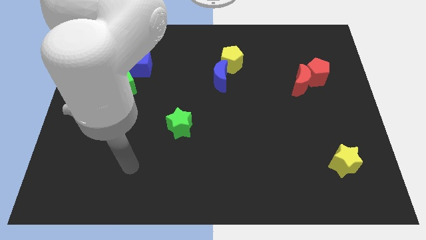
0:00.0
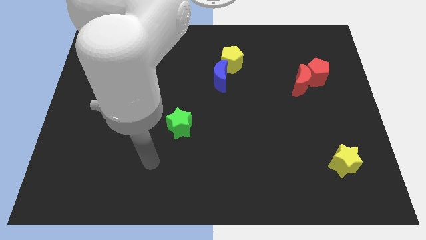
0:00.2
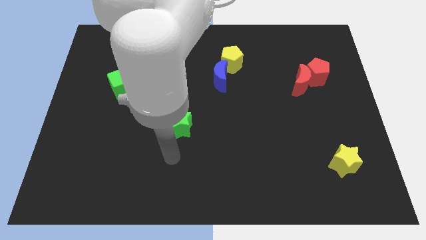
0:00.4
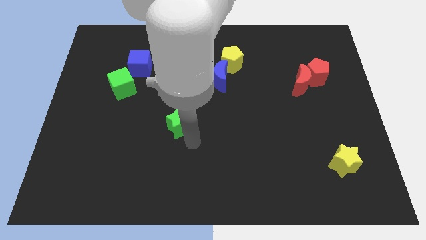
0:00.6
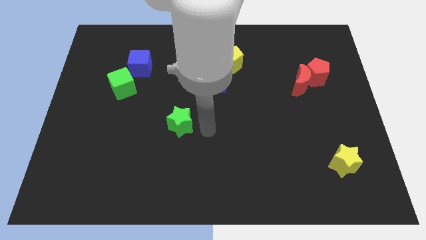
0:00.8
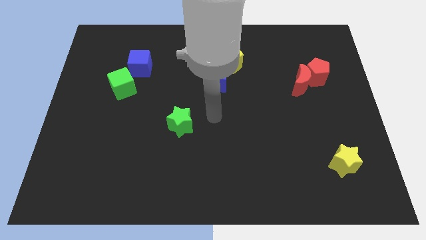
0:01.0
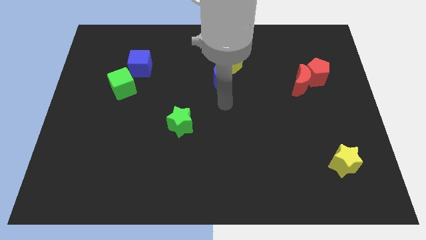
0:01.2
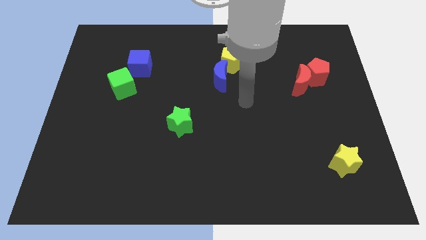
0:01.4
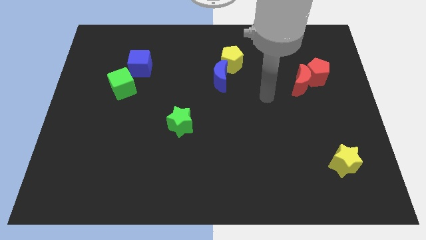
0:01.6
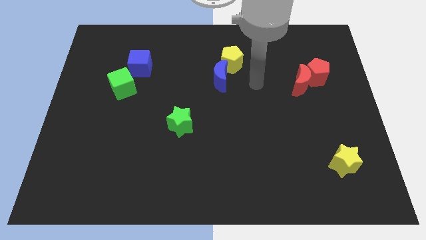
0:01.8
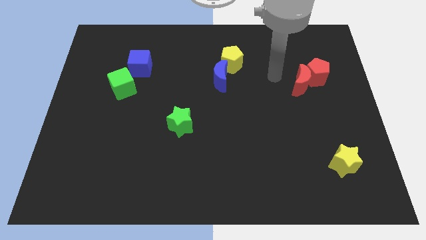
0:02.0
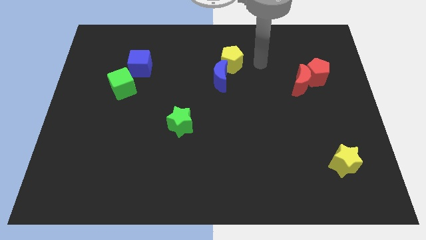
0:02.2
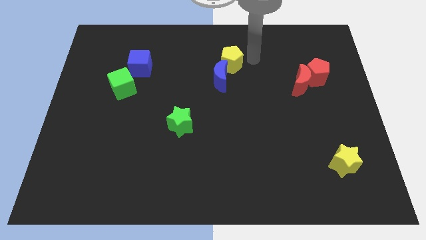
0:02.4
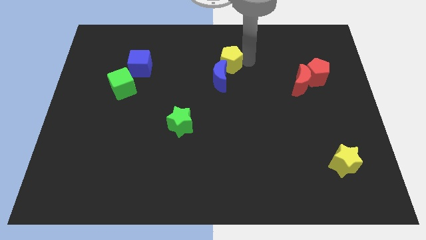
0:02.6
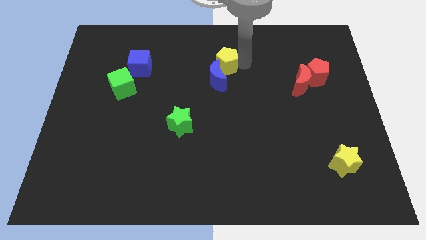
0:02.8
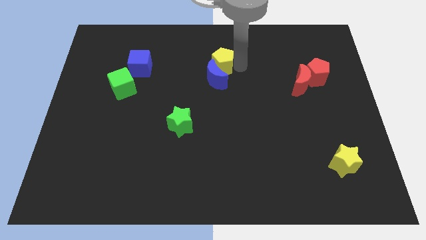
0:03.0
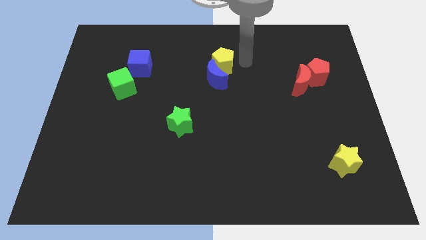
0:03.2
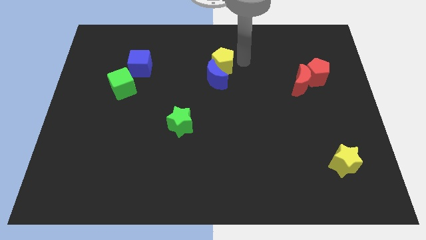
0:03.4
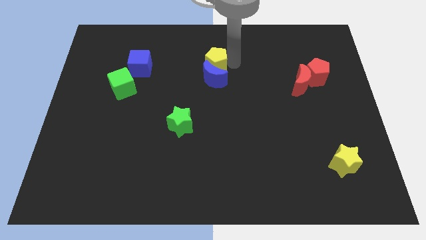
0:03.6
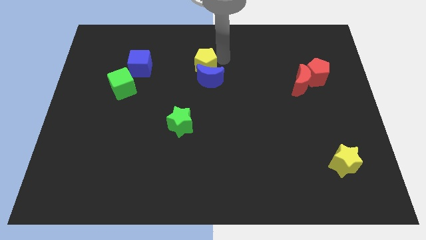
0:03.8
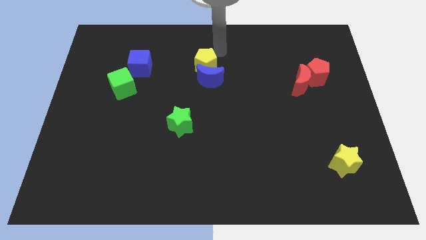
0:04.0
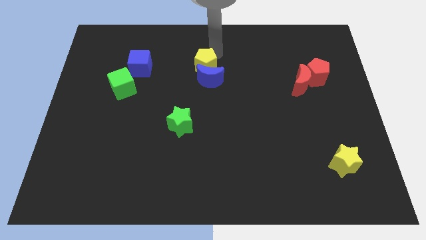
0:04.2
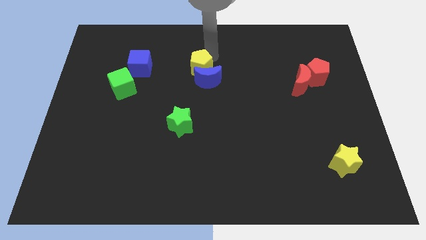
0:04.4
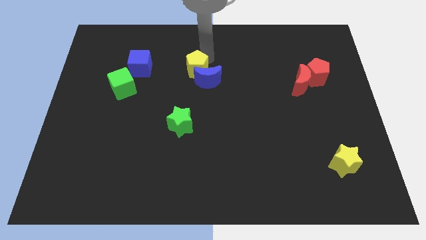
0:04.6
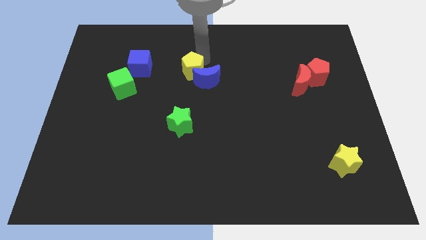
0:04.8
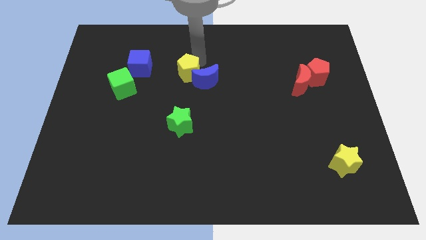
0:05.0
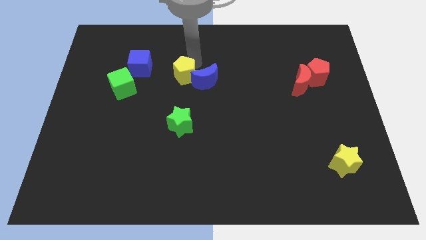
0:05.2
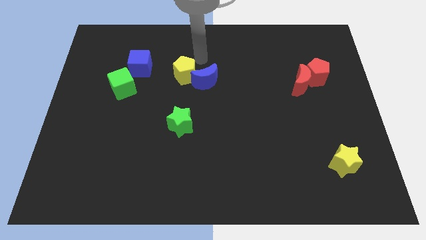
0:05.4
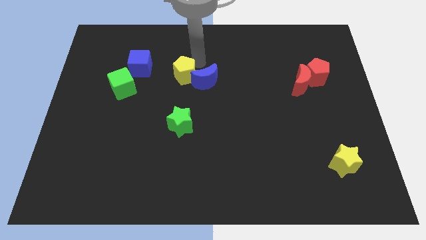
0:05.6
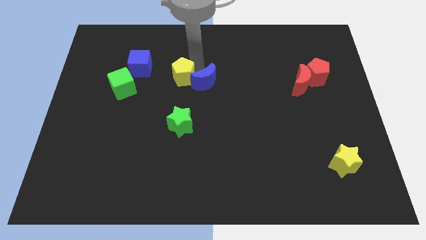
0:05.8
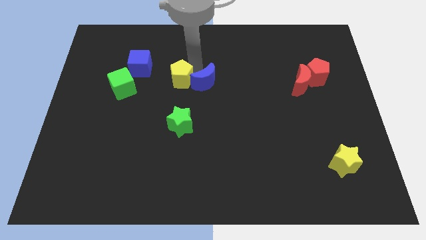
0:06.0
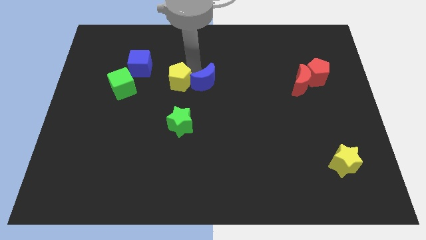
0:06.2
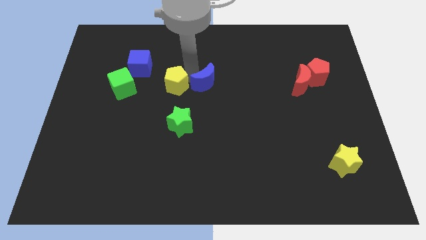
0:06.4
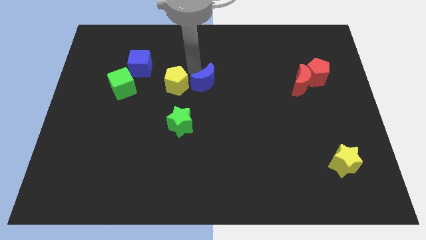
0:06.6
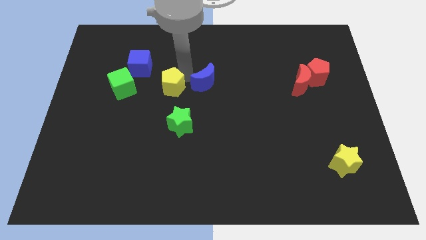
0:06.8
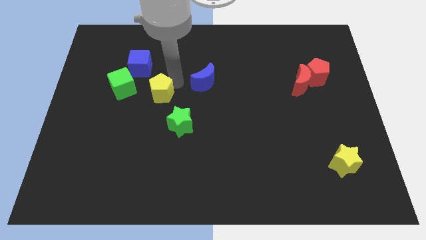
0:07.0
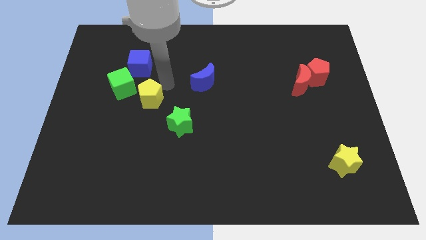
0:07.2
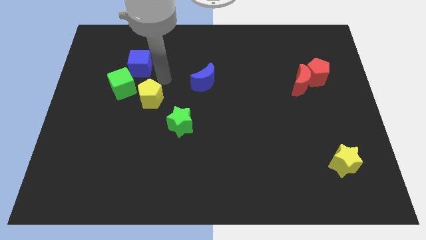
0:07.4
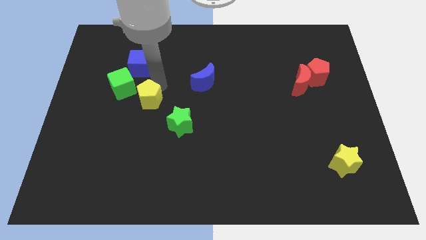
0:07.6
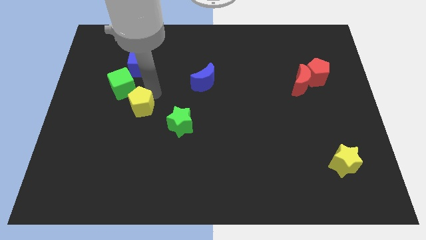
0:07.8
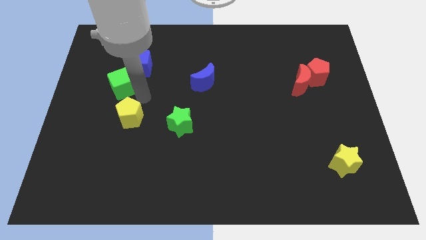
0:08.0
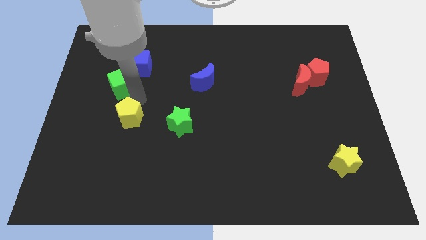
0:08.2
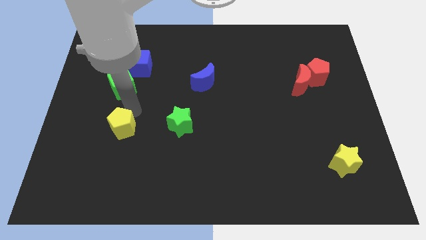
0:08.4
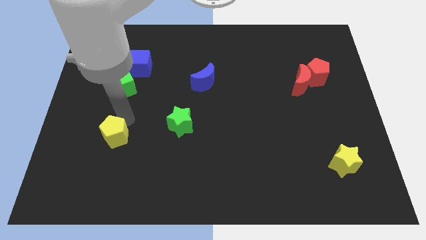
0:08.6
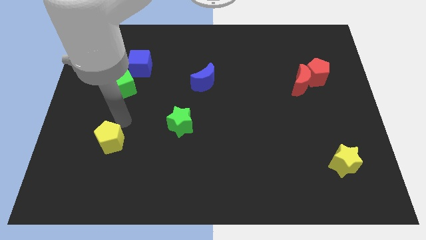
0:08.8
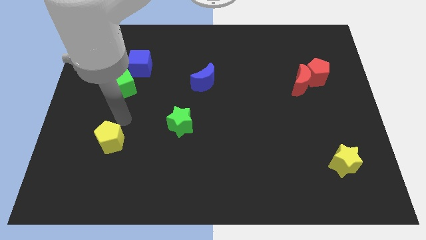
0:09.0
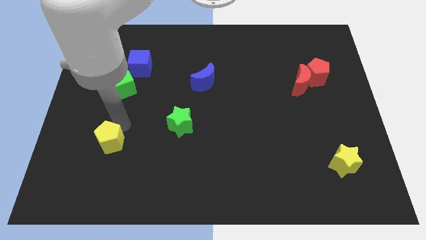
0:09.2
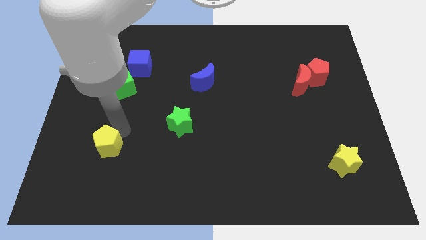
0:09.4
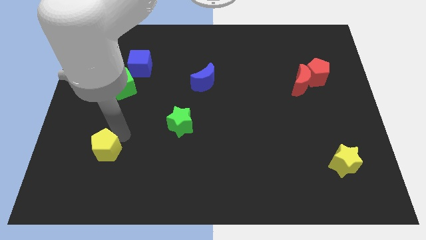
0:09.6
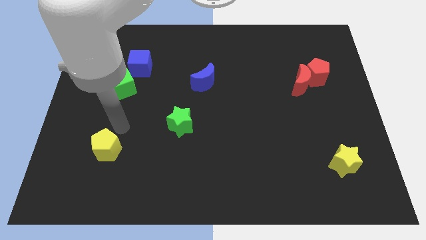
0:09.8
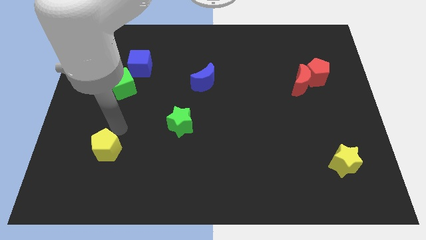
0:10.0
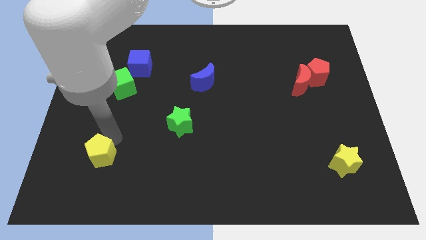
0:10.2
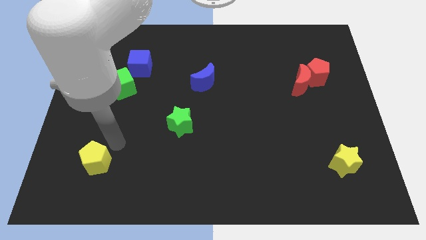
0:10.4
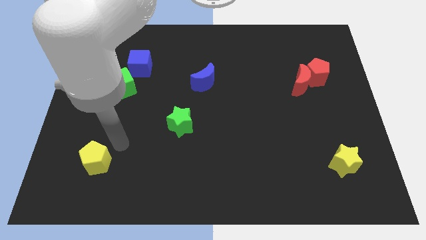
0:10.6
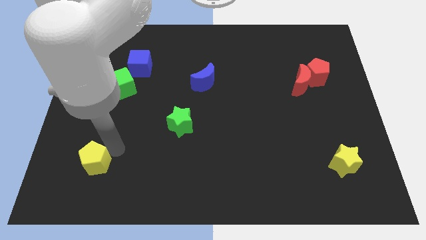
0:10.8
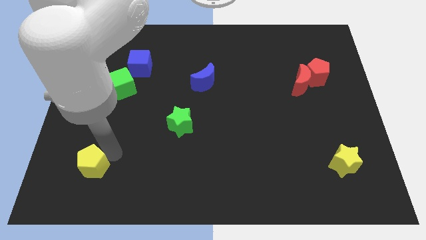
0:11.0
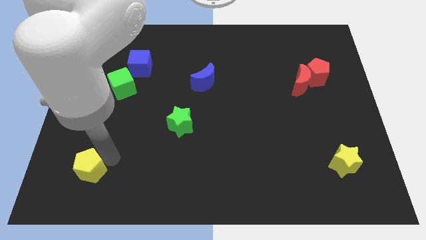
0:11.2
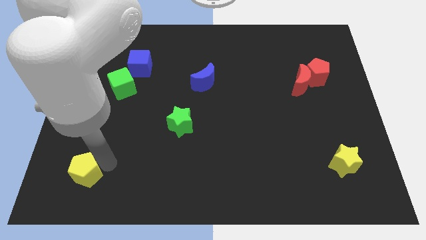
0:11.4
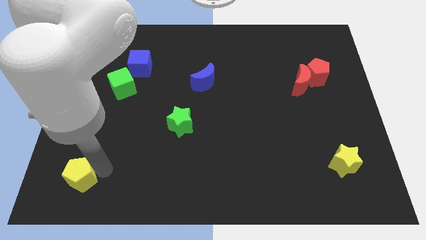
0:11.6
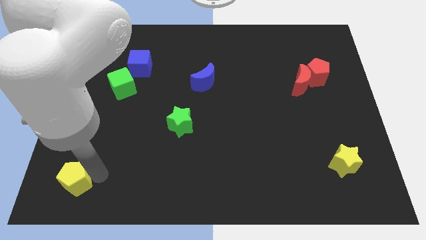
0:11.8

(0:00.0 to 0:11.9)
put the yellow pentagon to the bottom left
